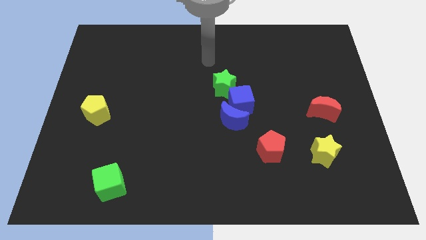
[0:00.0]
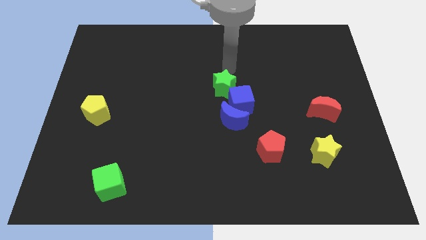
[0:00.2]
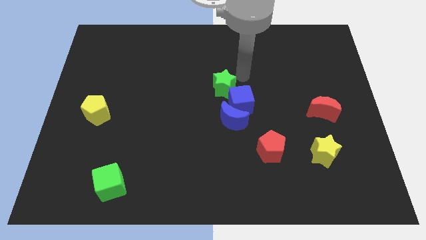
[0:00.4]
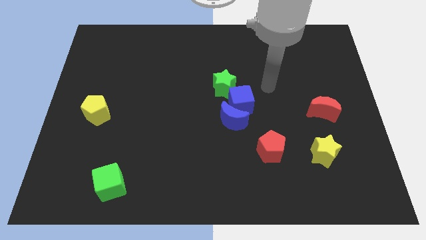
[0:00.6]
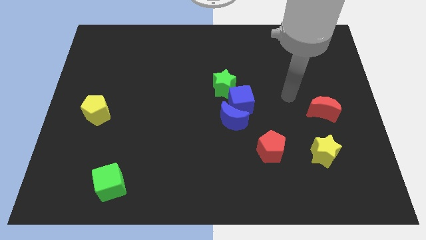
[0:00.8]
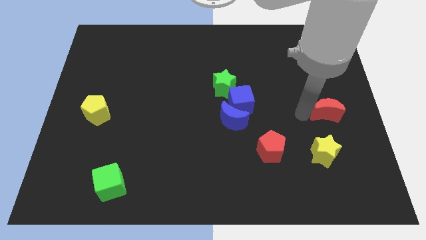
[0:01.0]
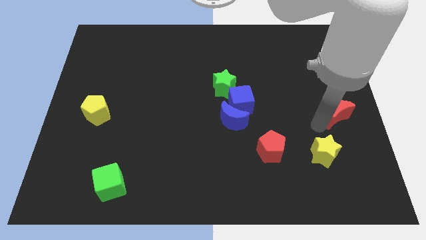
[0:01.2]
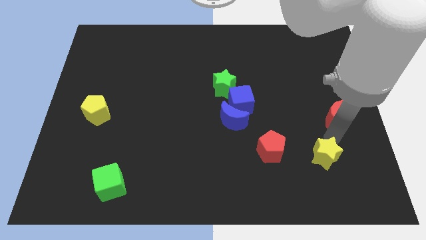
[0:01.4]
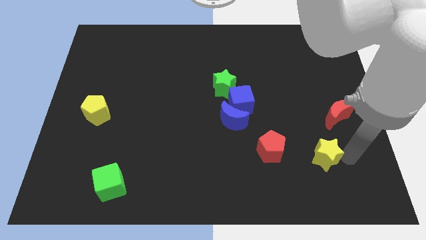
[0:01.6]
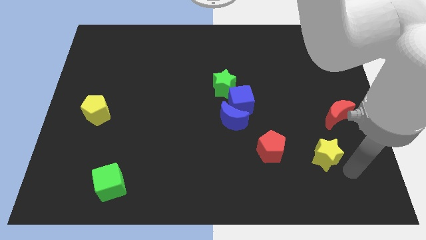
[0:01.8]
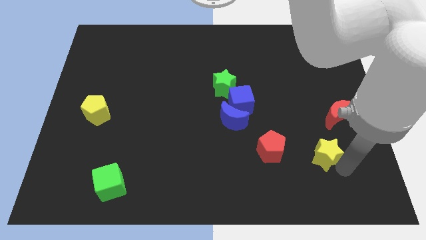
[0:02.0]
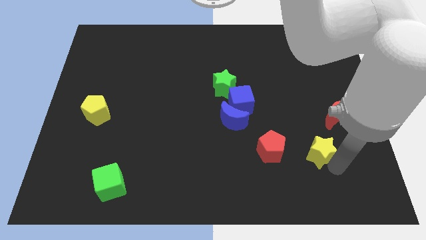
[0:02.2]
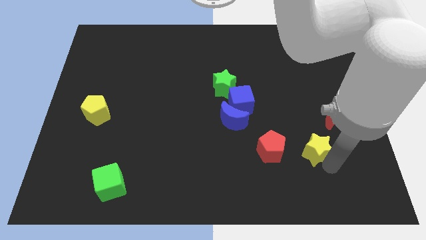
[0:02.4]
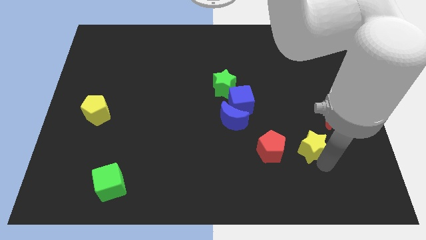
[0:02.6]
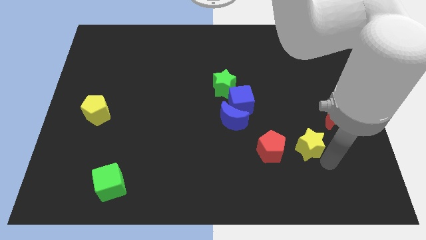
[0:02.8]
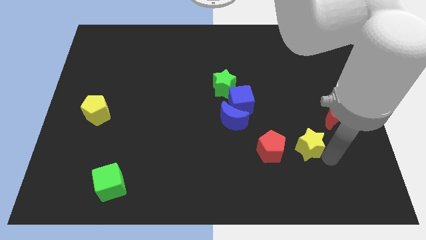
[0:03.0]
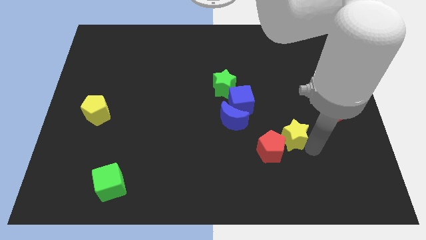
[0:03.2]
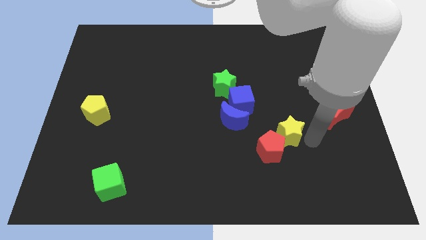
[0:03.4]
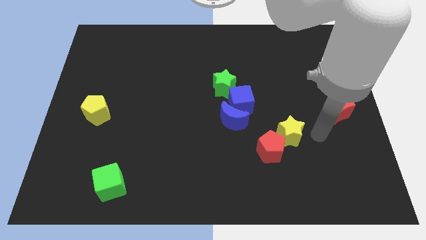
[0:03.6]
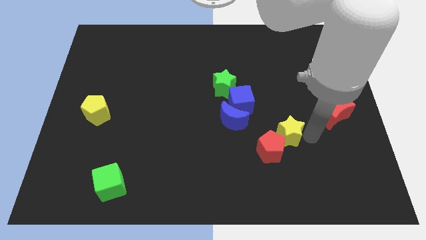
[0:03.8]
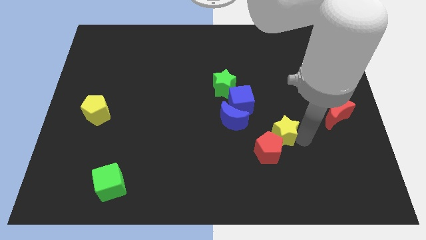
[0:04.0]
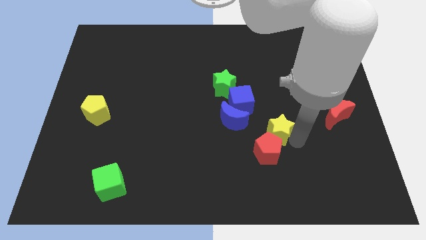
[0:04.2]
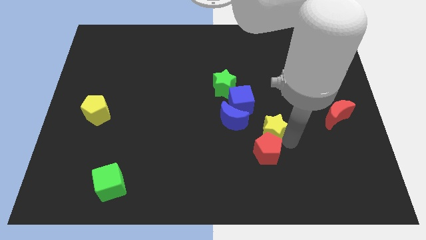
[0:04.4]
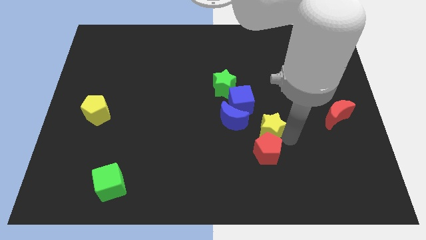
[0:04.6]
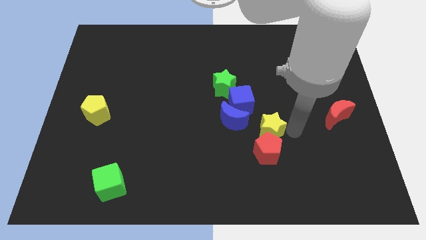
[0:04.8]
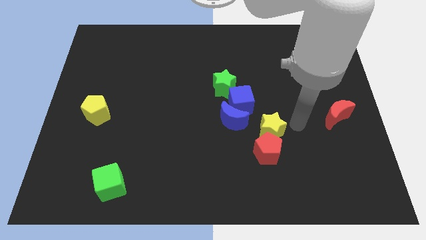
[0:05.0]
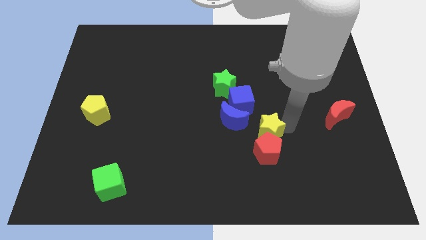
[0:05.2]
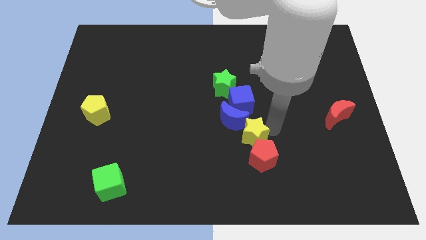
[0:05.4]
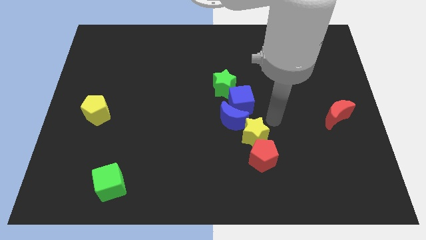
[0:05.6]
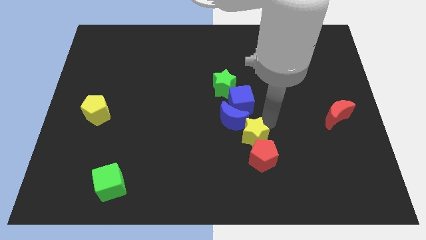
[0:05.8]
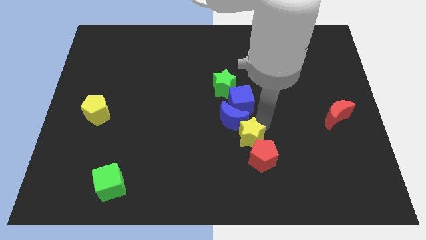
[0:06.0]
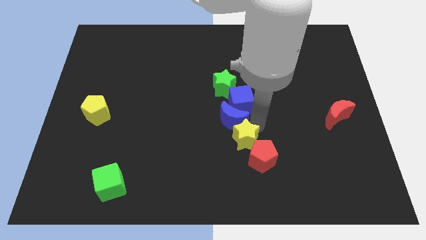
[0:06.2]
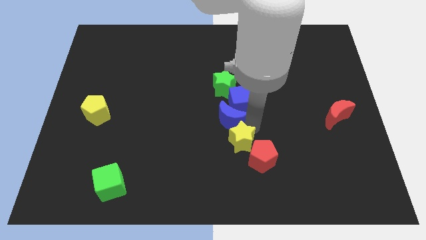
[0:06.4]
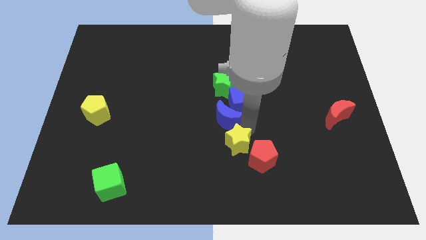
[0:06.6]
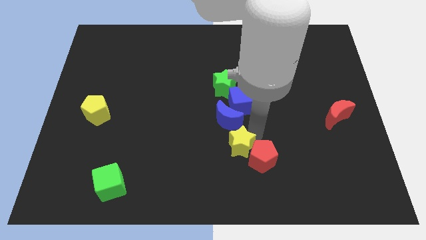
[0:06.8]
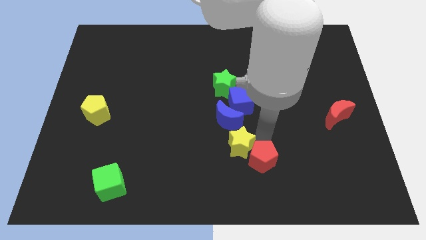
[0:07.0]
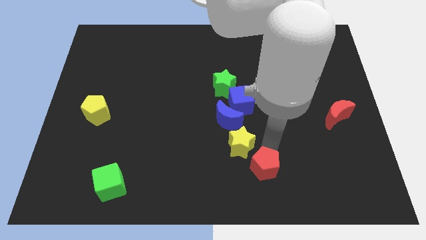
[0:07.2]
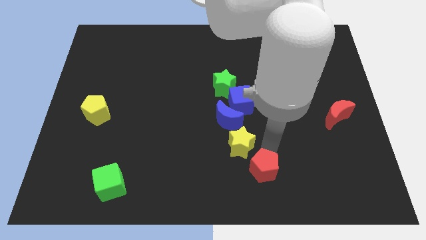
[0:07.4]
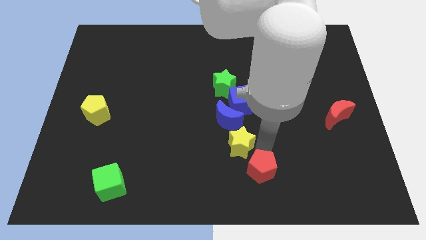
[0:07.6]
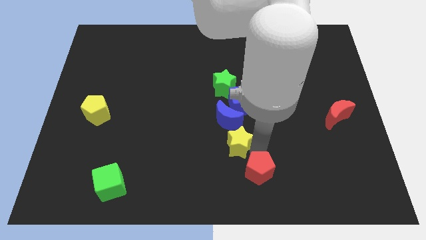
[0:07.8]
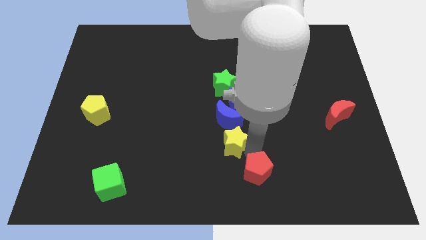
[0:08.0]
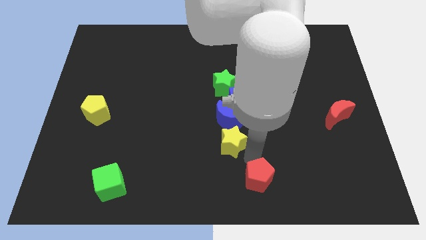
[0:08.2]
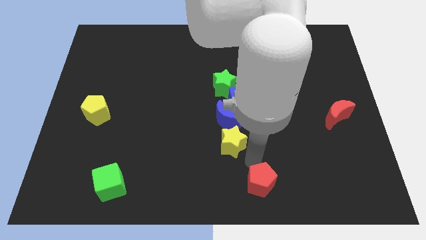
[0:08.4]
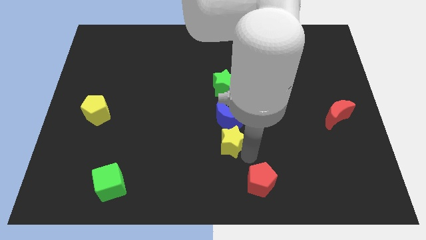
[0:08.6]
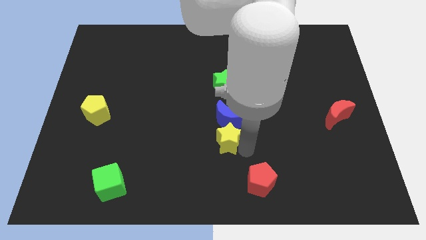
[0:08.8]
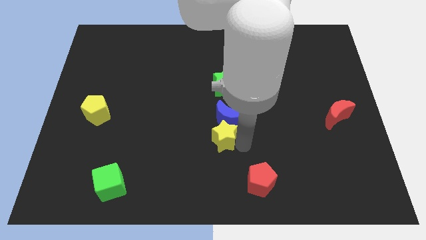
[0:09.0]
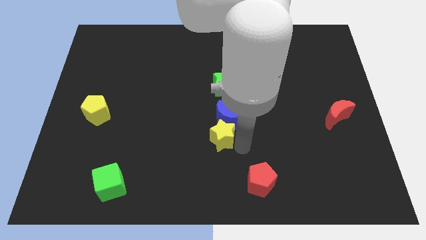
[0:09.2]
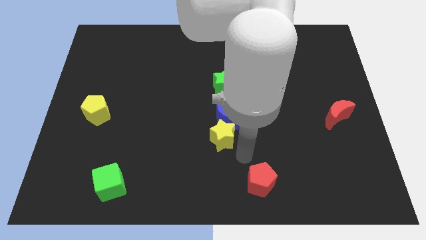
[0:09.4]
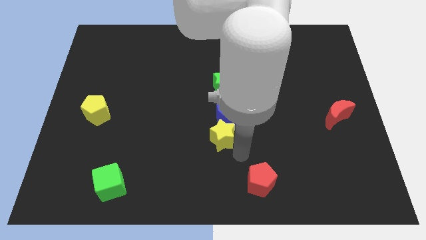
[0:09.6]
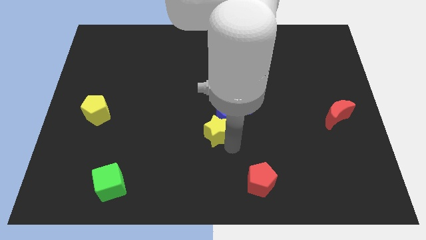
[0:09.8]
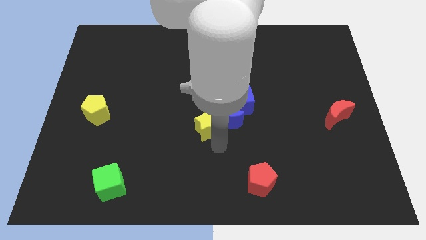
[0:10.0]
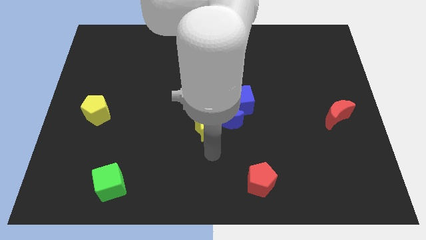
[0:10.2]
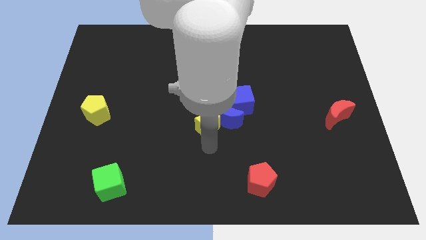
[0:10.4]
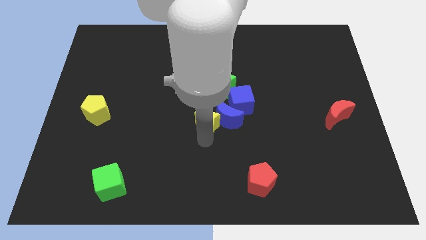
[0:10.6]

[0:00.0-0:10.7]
put the yellow star to the top left of the blue moon

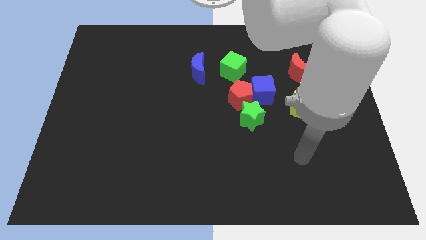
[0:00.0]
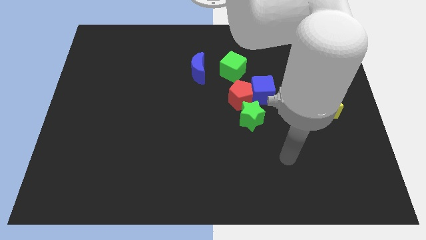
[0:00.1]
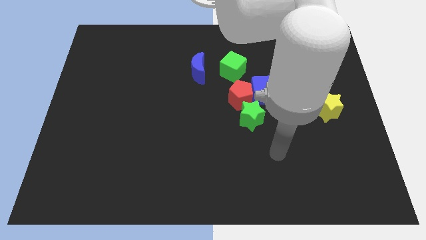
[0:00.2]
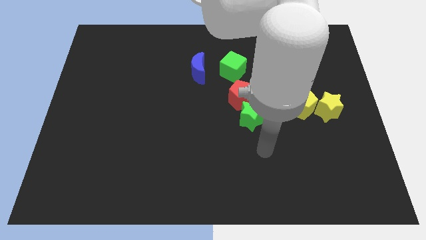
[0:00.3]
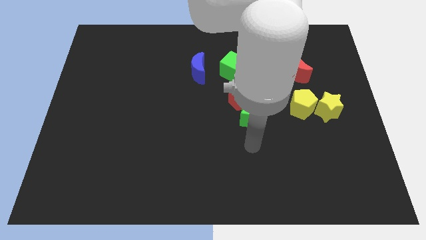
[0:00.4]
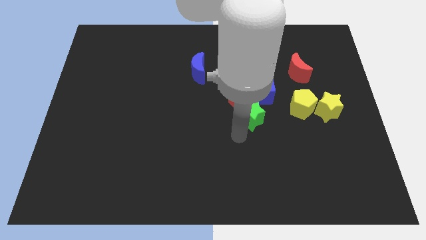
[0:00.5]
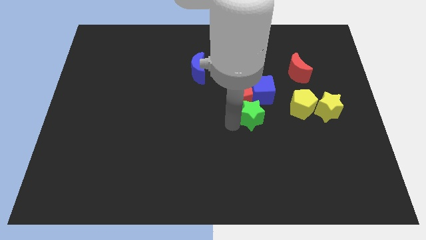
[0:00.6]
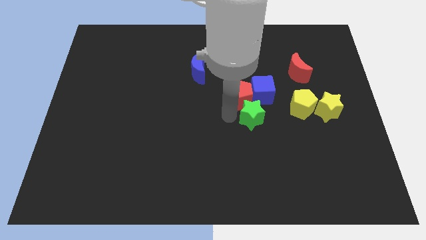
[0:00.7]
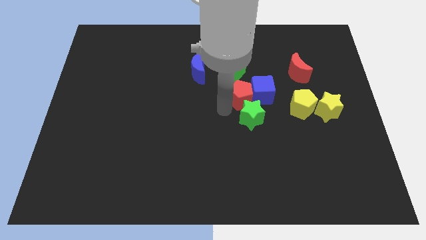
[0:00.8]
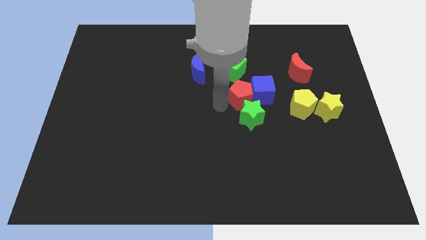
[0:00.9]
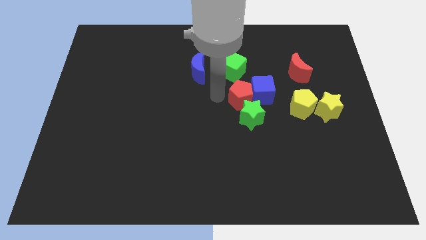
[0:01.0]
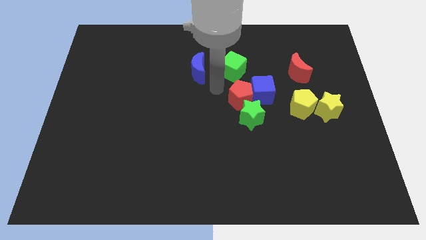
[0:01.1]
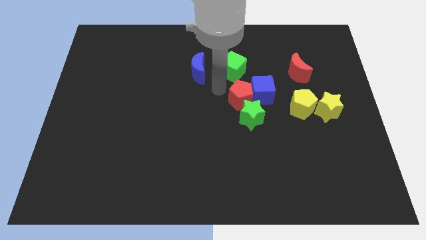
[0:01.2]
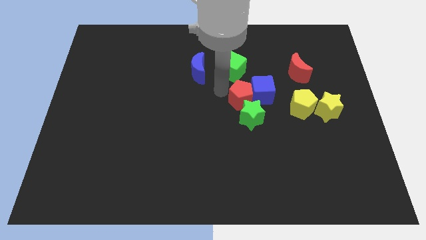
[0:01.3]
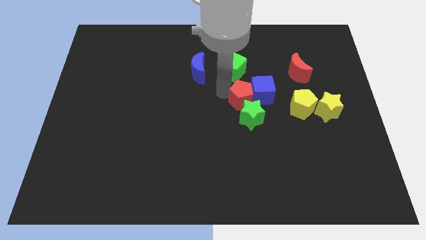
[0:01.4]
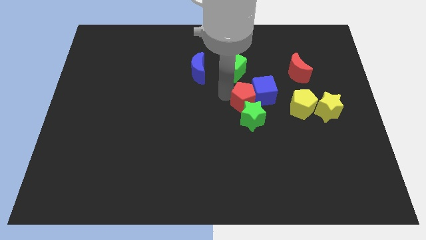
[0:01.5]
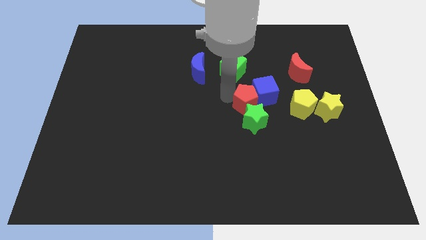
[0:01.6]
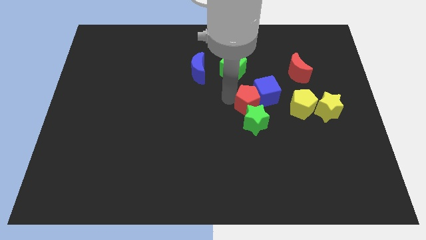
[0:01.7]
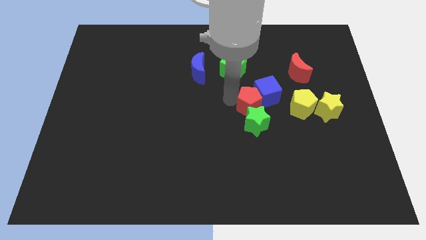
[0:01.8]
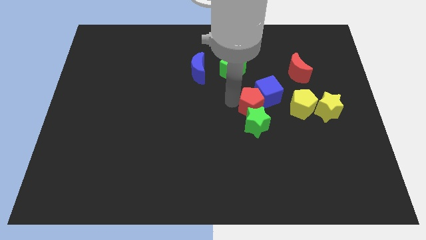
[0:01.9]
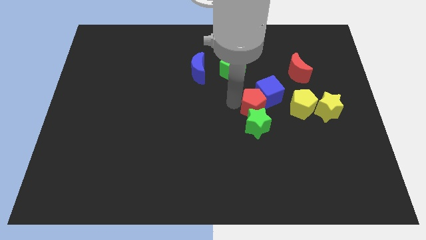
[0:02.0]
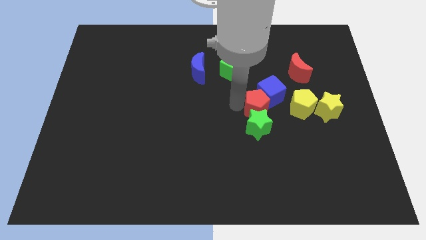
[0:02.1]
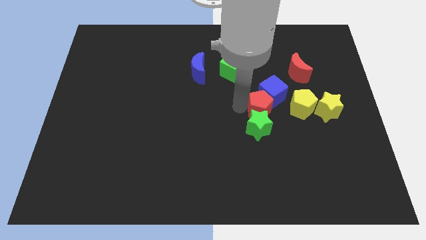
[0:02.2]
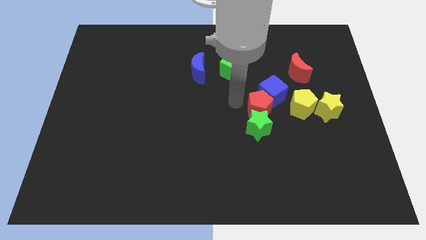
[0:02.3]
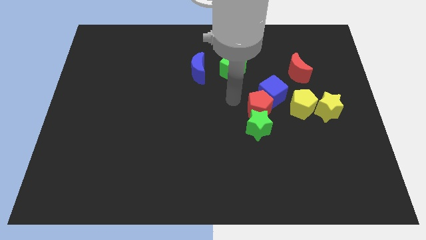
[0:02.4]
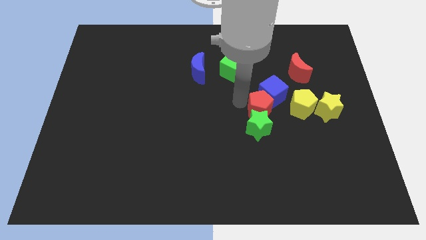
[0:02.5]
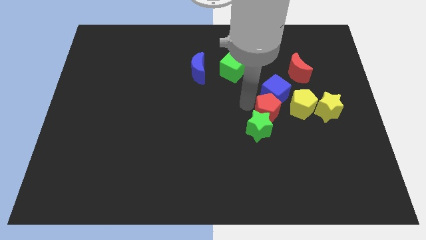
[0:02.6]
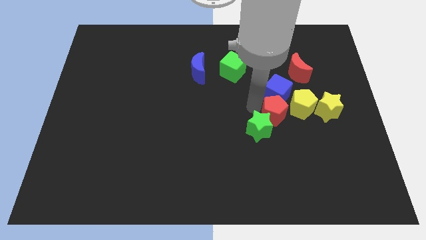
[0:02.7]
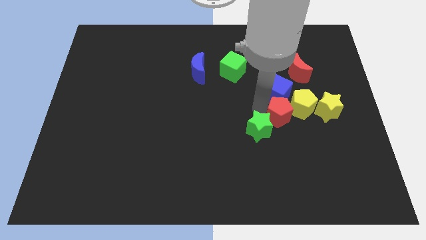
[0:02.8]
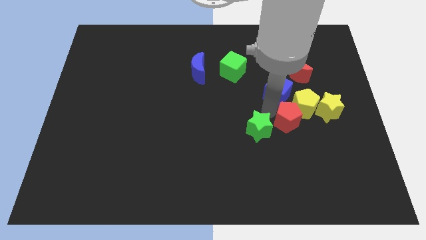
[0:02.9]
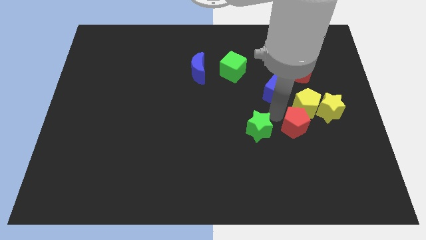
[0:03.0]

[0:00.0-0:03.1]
push the red pentagon to the bottom left of the yellow star
